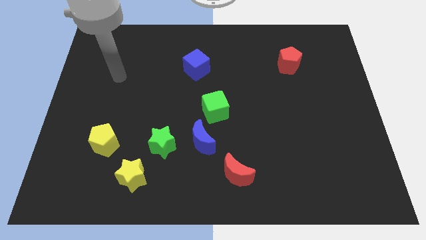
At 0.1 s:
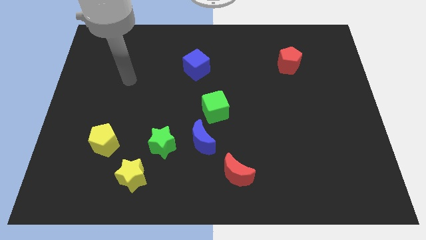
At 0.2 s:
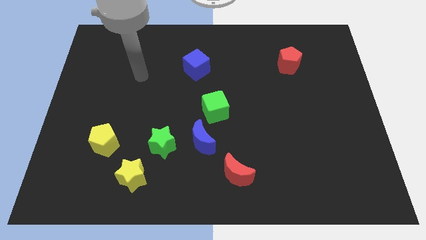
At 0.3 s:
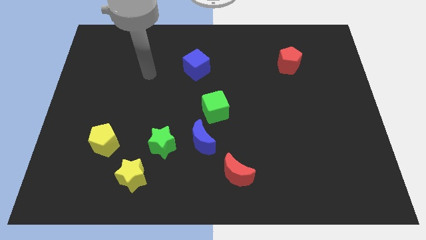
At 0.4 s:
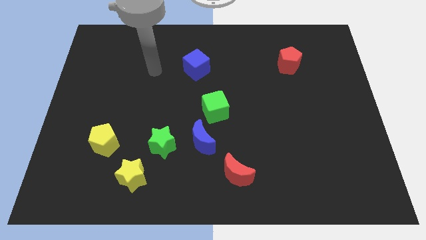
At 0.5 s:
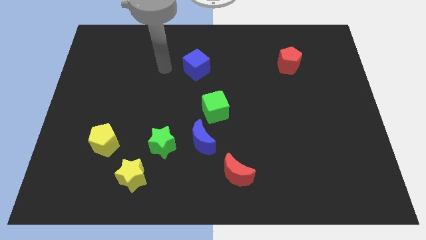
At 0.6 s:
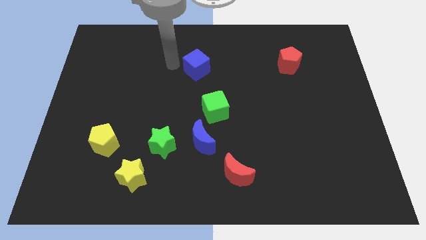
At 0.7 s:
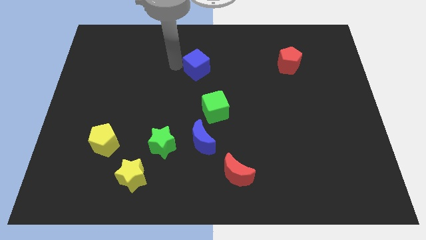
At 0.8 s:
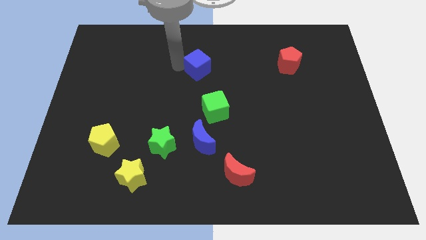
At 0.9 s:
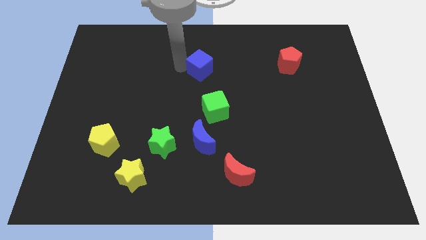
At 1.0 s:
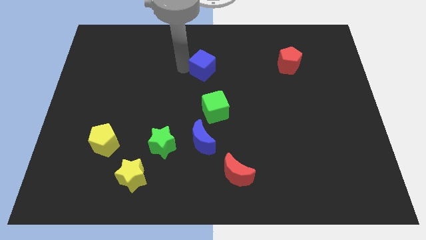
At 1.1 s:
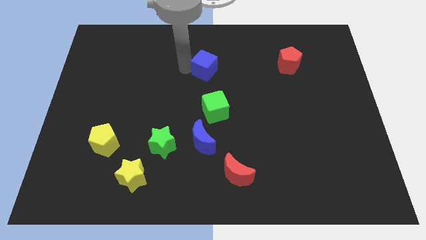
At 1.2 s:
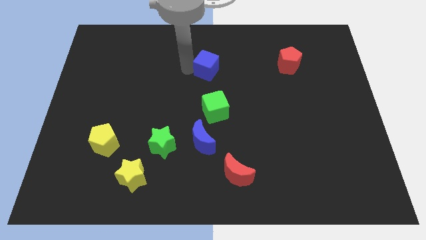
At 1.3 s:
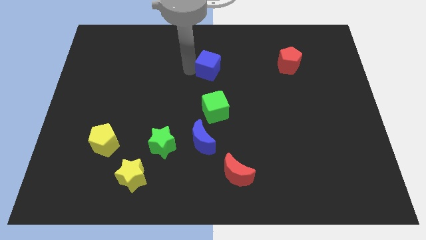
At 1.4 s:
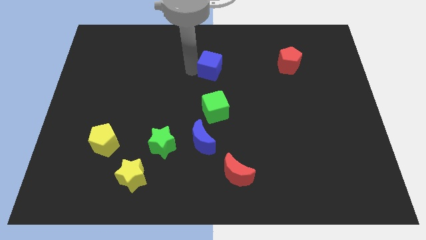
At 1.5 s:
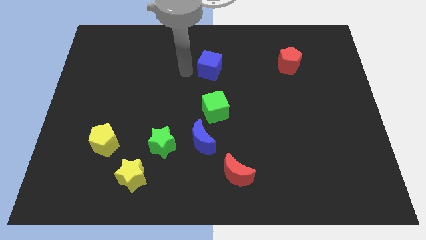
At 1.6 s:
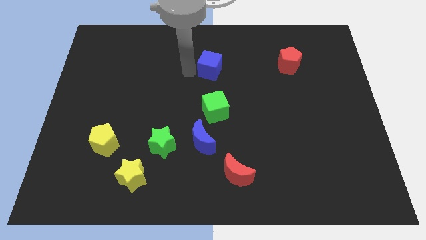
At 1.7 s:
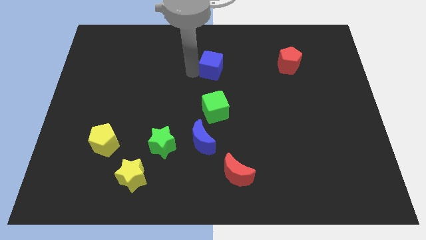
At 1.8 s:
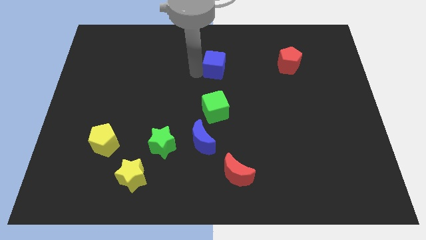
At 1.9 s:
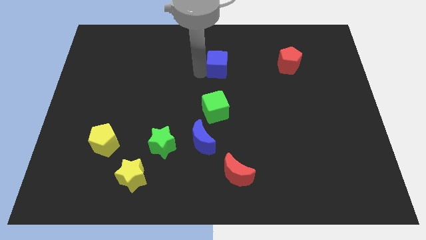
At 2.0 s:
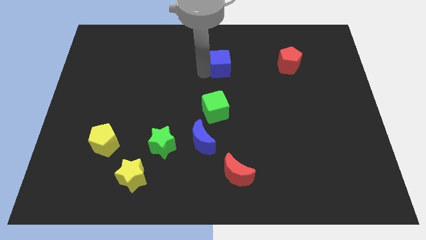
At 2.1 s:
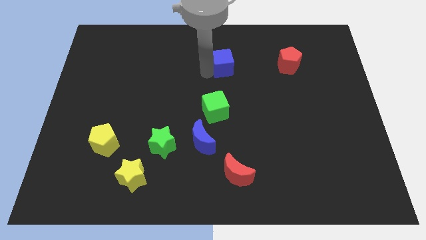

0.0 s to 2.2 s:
slightly push the blue cube right

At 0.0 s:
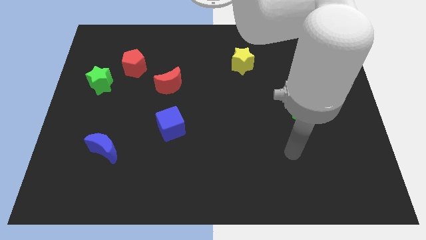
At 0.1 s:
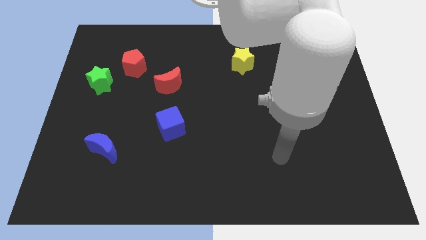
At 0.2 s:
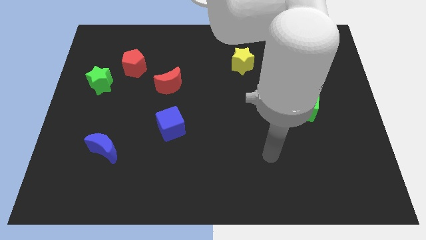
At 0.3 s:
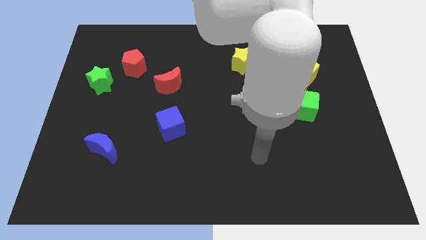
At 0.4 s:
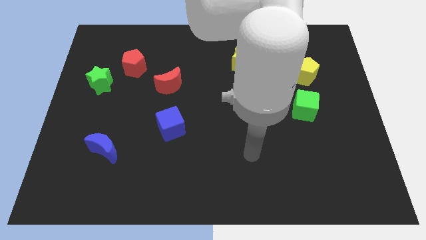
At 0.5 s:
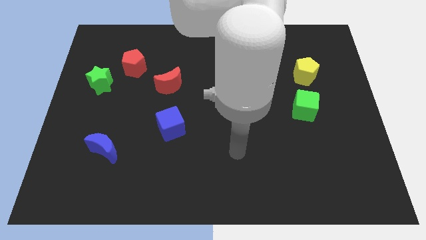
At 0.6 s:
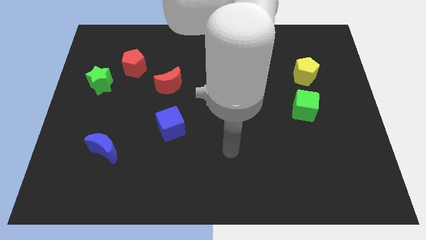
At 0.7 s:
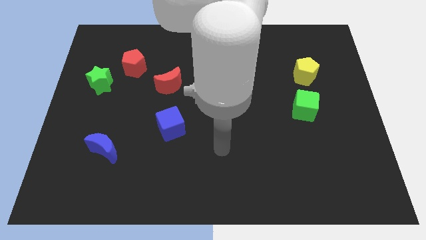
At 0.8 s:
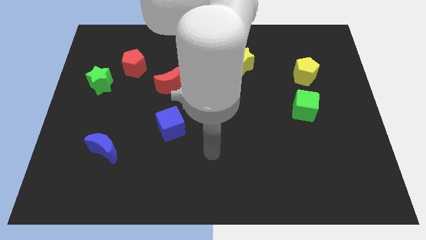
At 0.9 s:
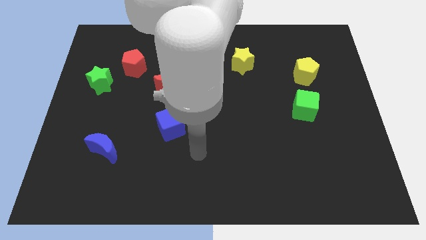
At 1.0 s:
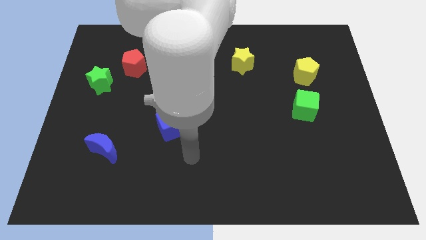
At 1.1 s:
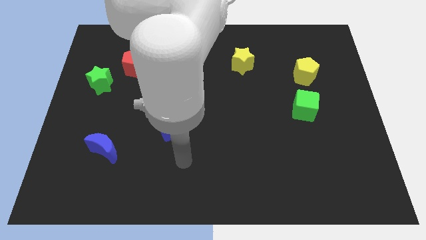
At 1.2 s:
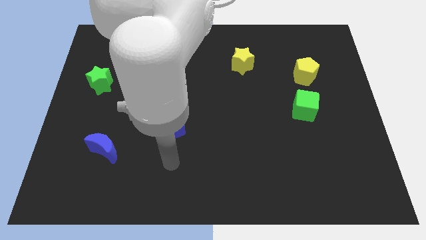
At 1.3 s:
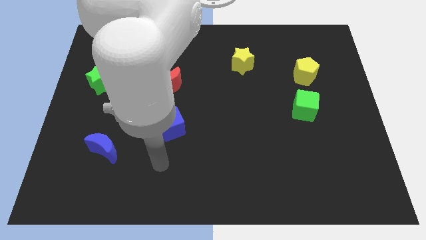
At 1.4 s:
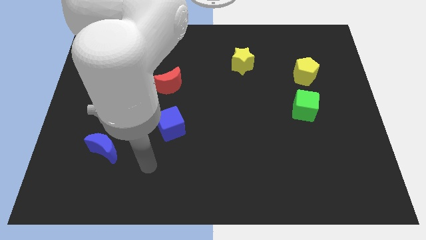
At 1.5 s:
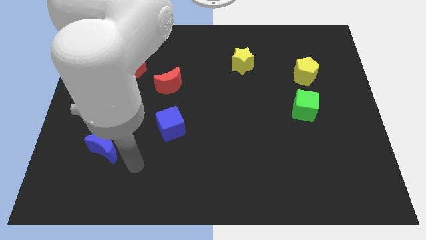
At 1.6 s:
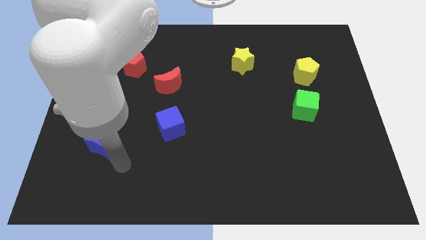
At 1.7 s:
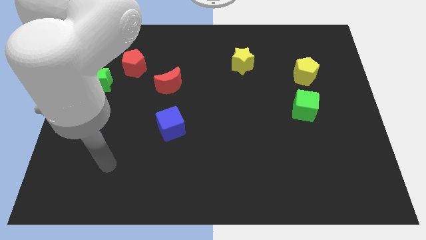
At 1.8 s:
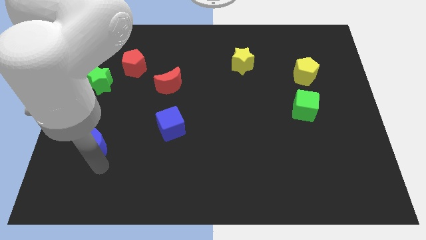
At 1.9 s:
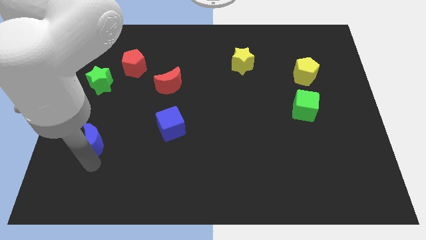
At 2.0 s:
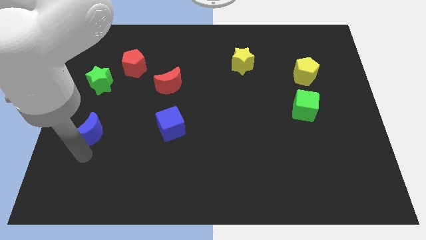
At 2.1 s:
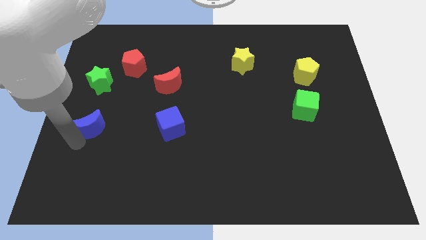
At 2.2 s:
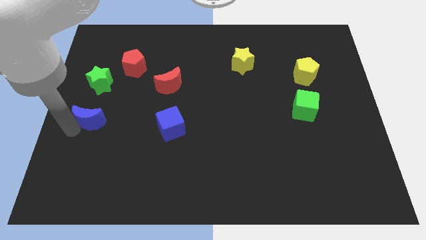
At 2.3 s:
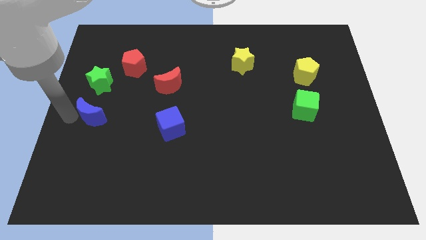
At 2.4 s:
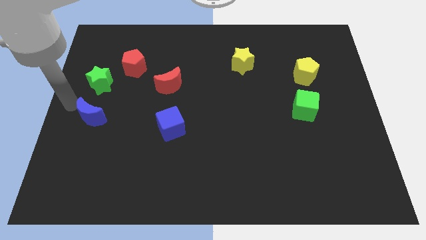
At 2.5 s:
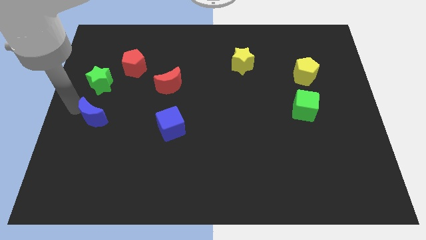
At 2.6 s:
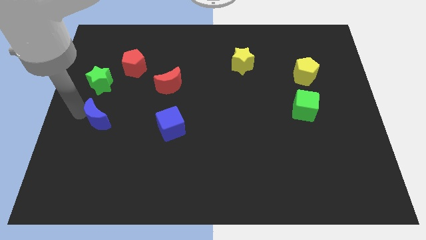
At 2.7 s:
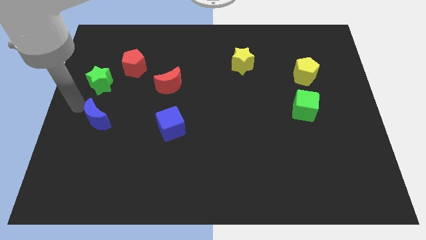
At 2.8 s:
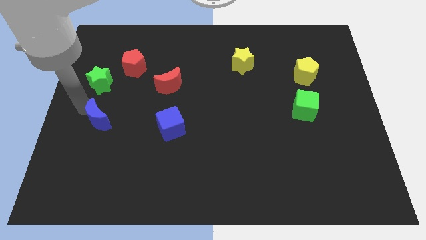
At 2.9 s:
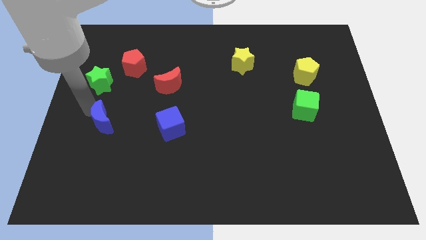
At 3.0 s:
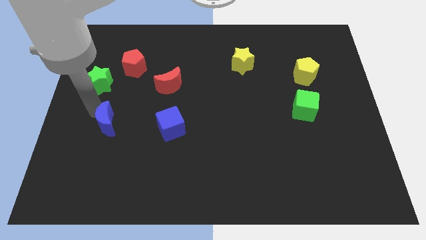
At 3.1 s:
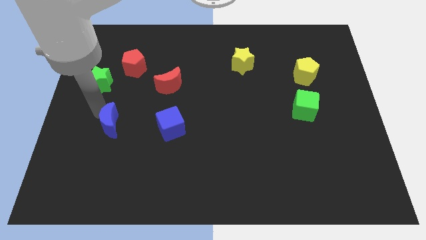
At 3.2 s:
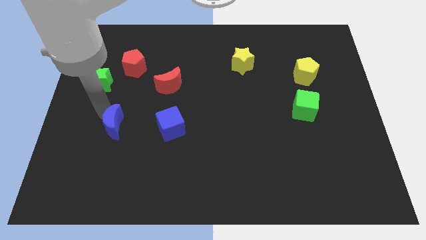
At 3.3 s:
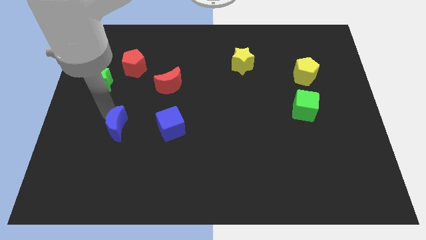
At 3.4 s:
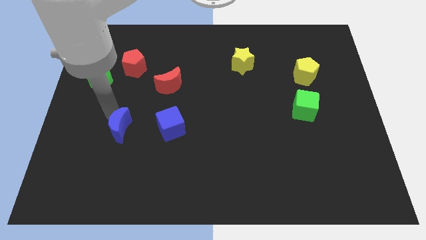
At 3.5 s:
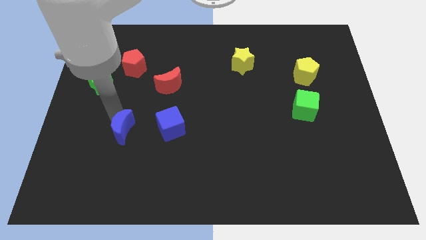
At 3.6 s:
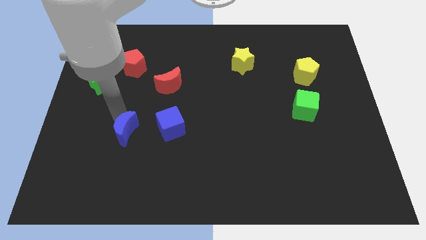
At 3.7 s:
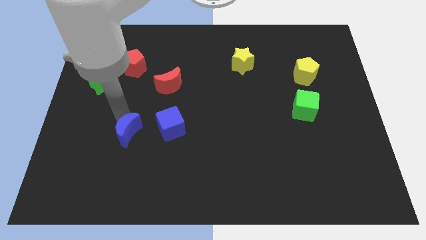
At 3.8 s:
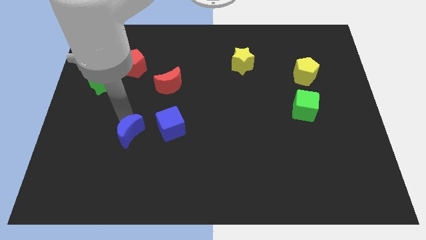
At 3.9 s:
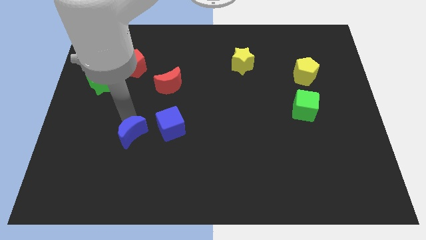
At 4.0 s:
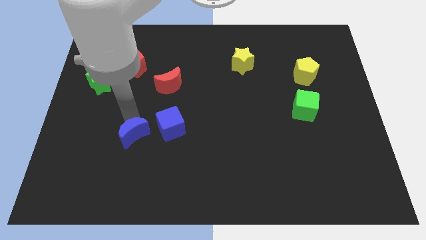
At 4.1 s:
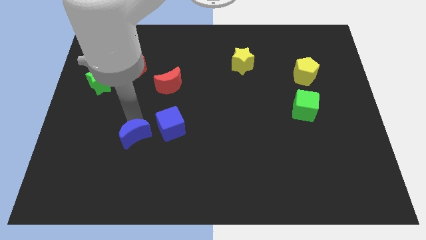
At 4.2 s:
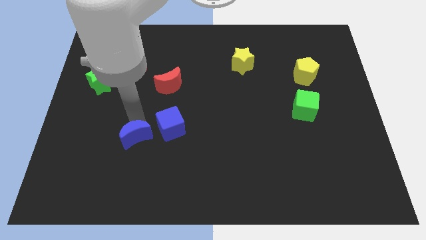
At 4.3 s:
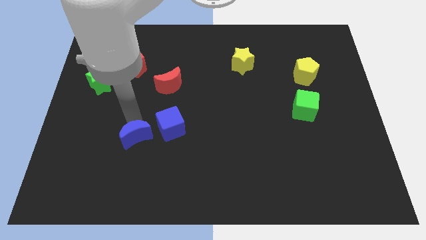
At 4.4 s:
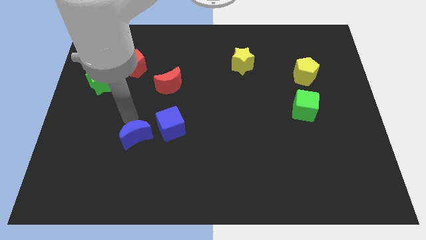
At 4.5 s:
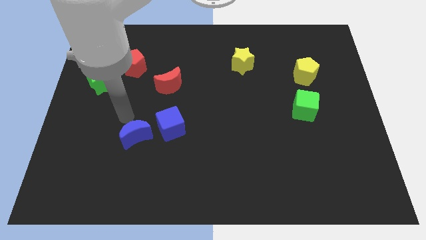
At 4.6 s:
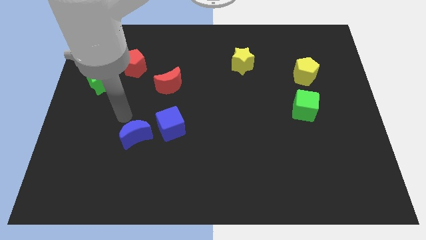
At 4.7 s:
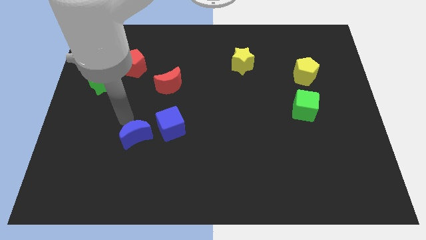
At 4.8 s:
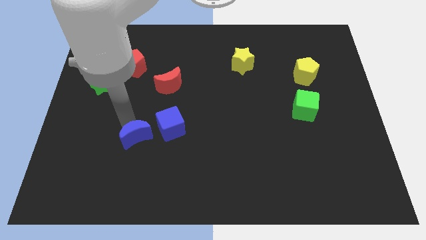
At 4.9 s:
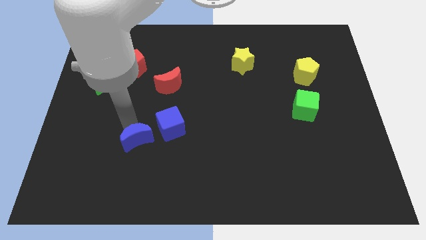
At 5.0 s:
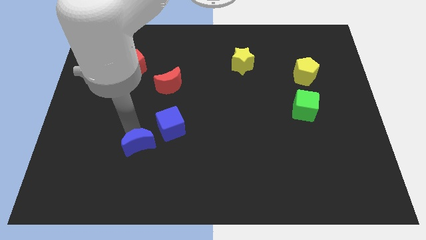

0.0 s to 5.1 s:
push the blue moon a bit right

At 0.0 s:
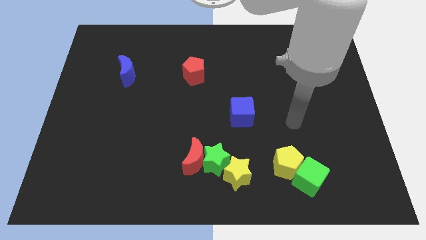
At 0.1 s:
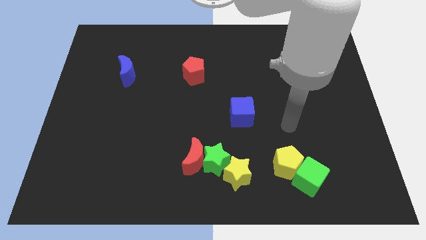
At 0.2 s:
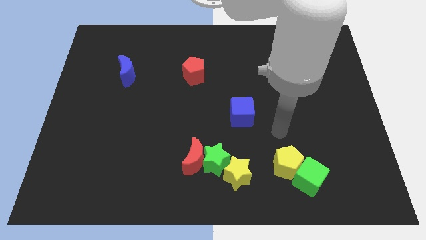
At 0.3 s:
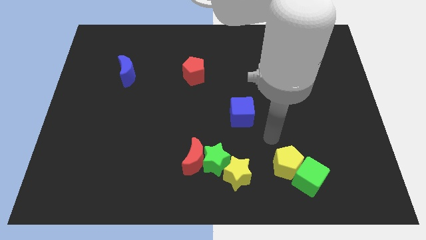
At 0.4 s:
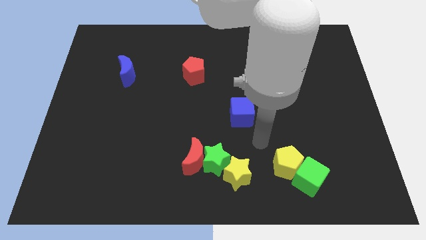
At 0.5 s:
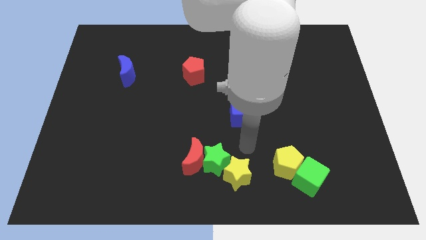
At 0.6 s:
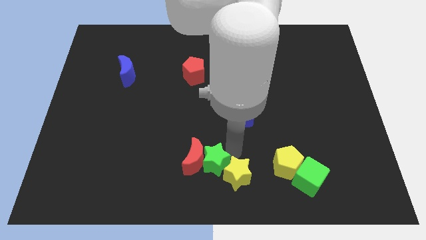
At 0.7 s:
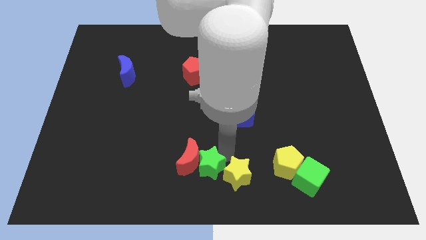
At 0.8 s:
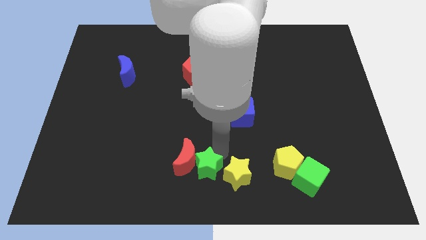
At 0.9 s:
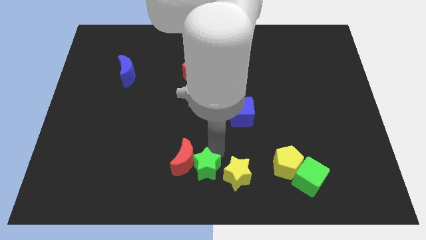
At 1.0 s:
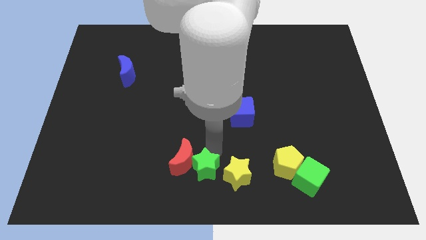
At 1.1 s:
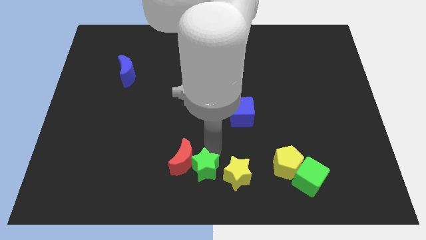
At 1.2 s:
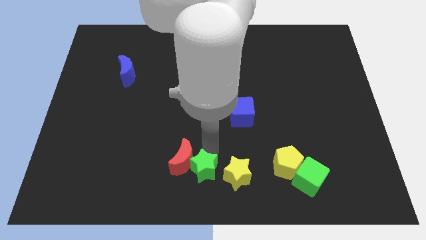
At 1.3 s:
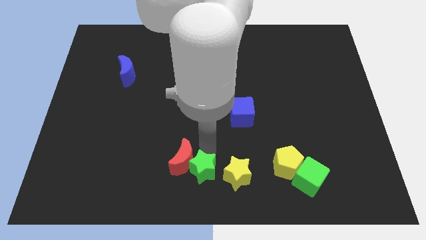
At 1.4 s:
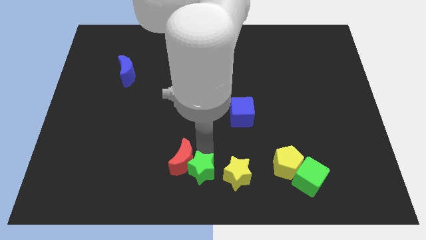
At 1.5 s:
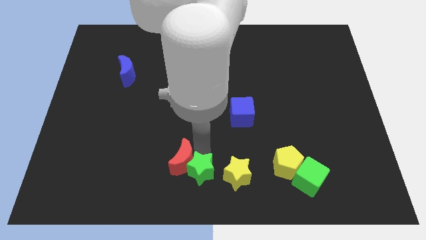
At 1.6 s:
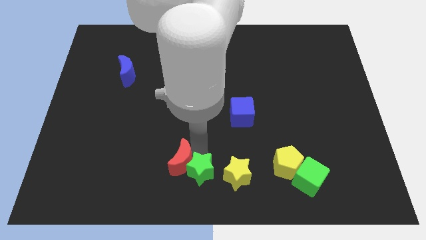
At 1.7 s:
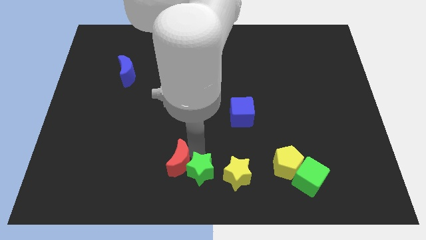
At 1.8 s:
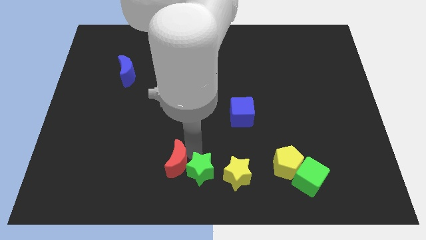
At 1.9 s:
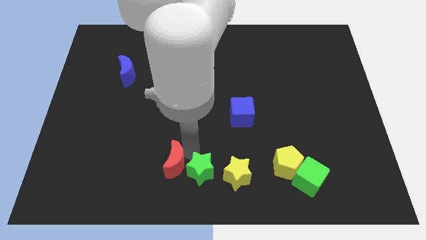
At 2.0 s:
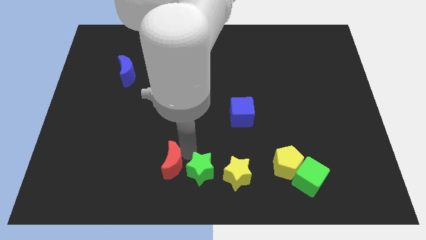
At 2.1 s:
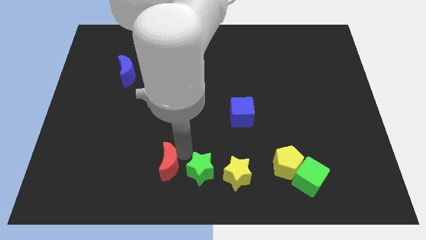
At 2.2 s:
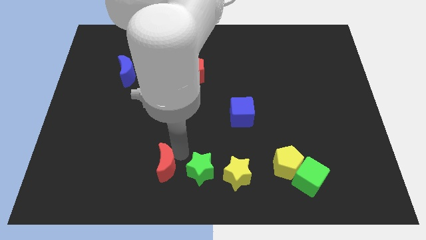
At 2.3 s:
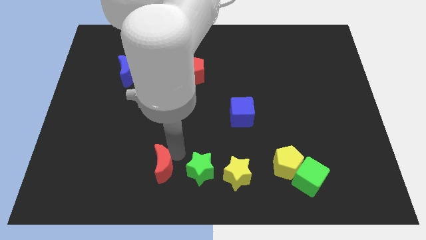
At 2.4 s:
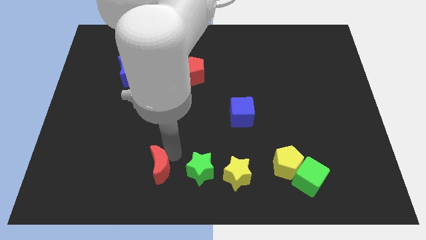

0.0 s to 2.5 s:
slightly slide the red moon to the left
